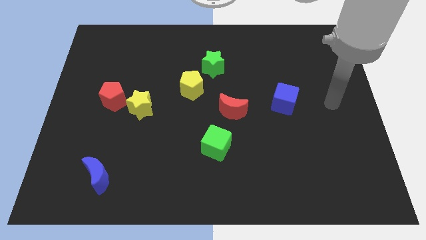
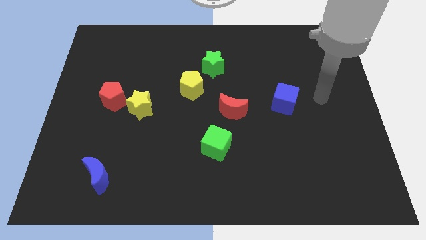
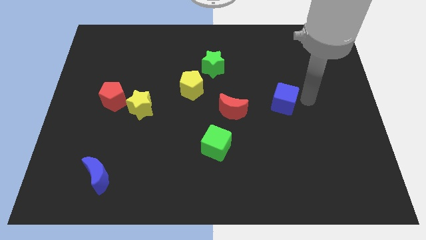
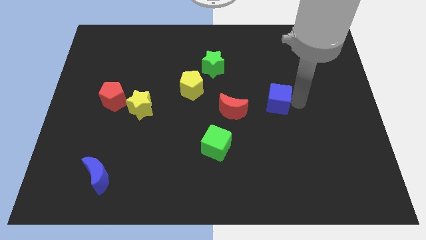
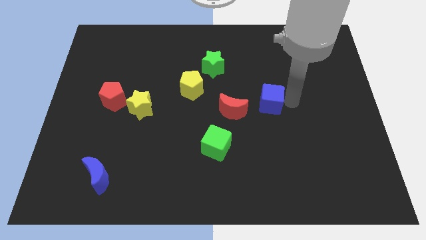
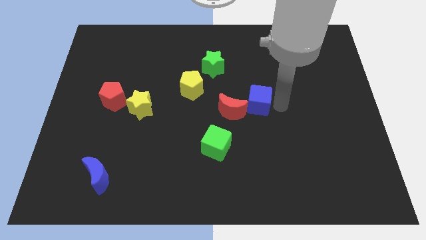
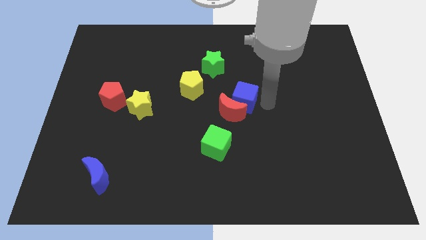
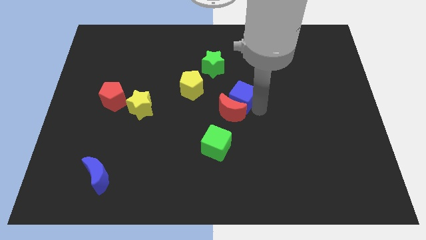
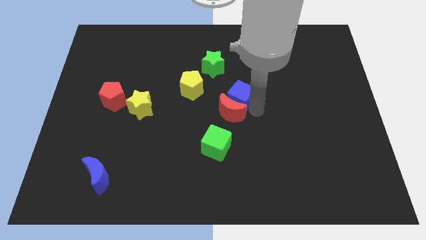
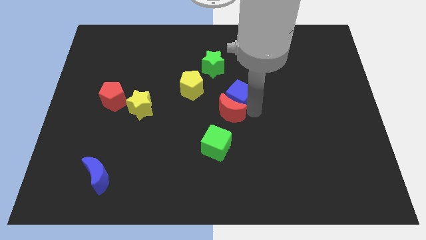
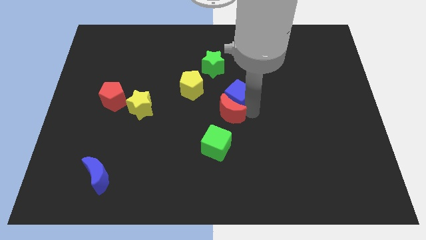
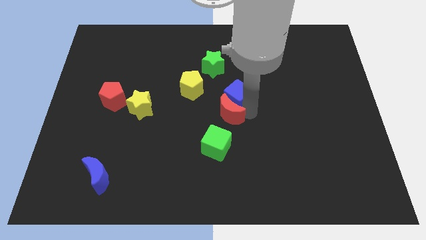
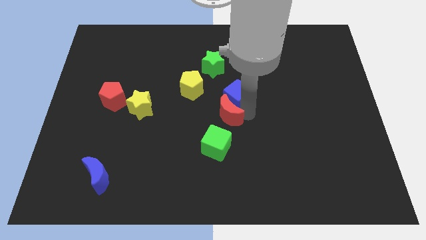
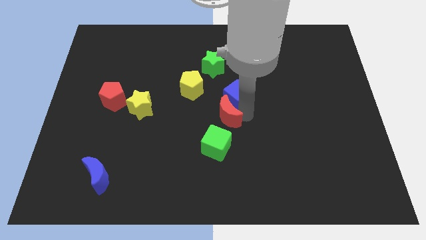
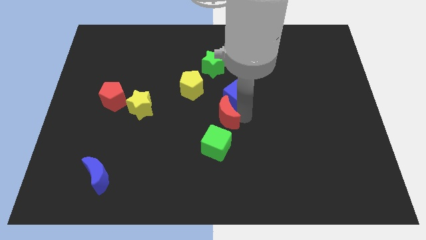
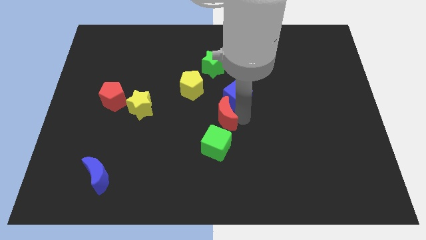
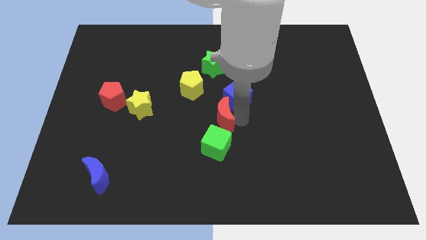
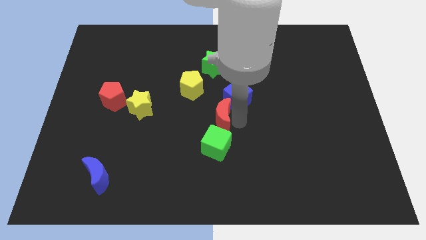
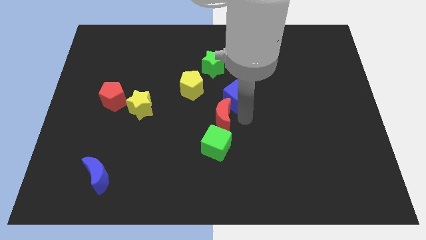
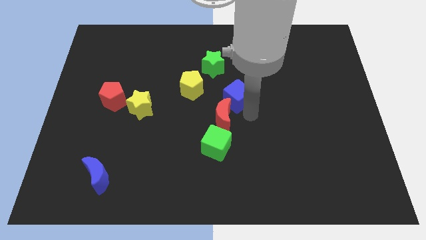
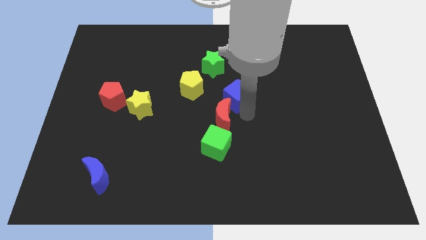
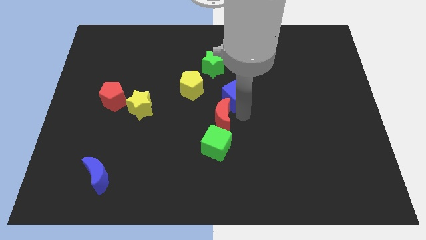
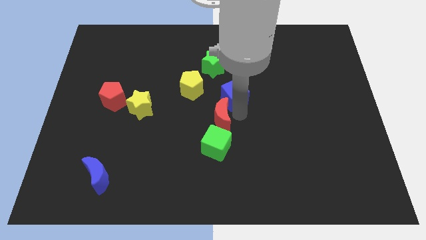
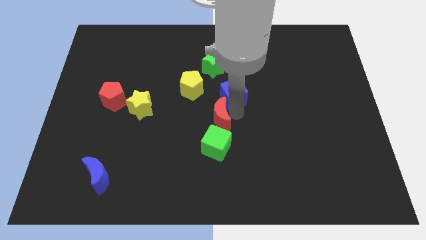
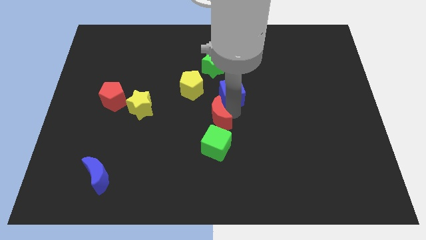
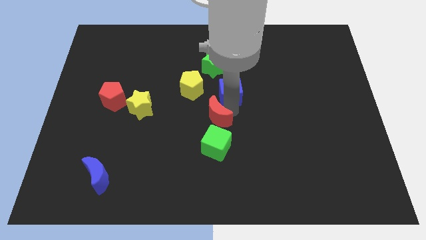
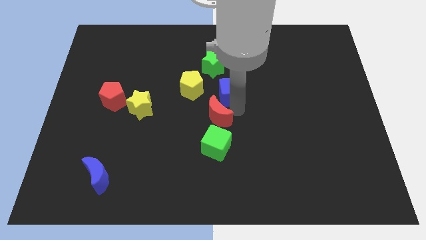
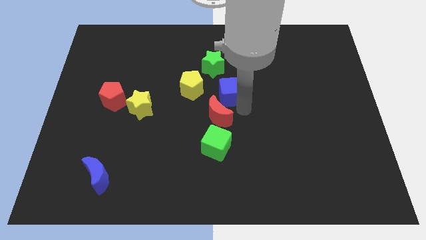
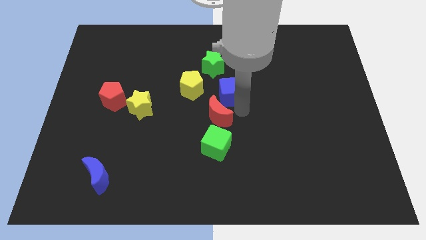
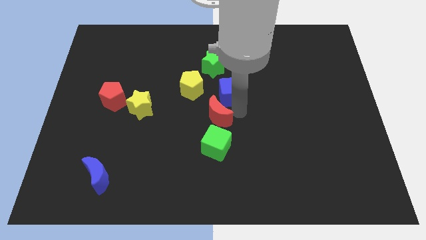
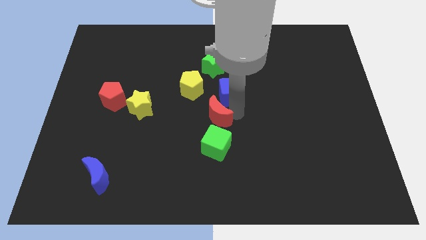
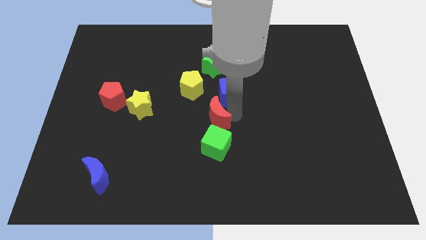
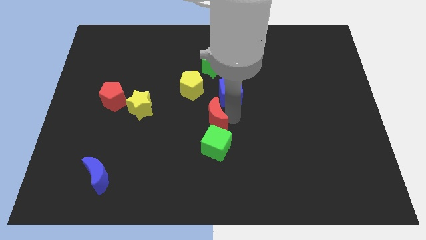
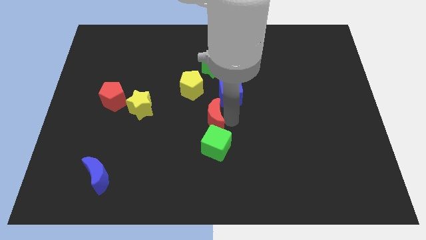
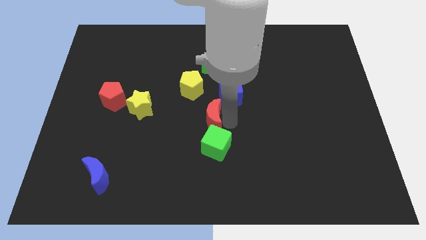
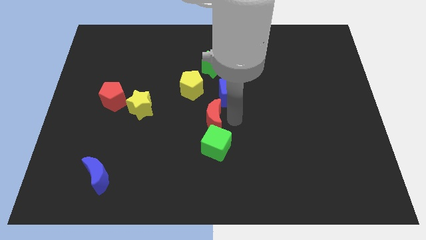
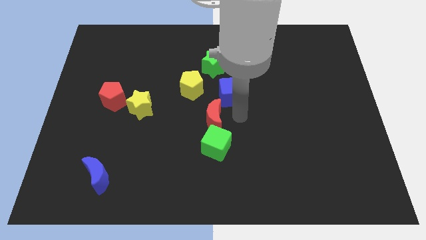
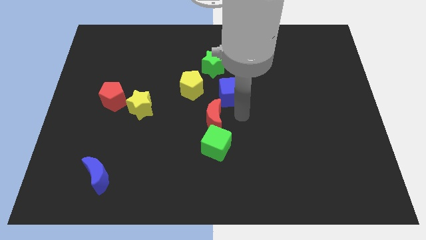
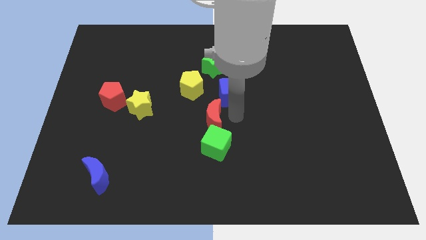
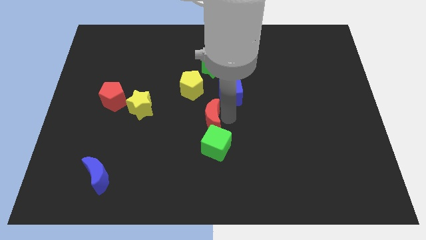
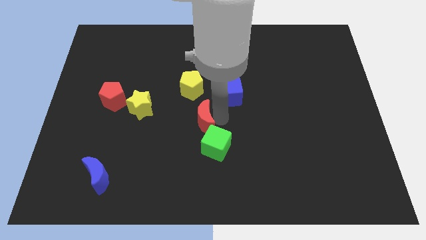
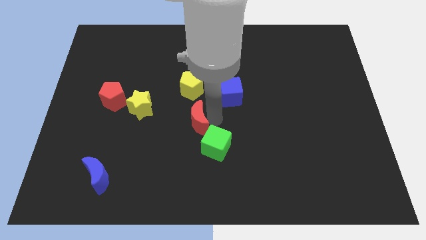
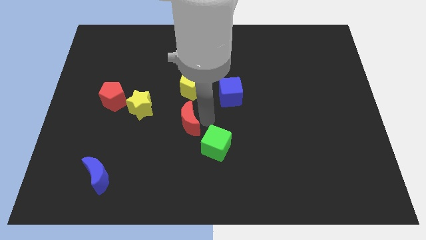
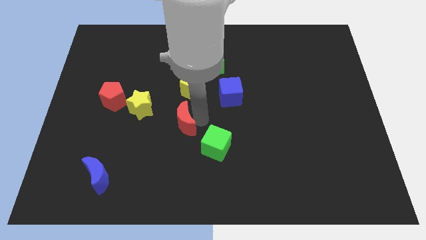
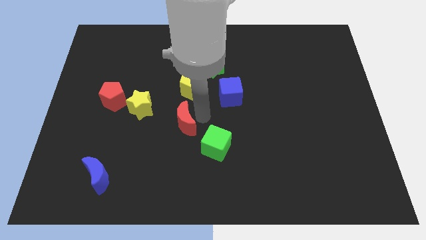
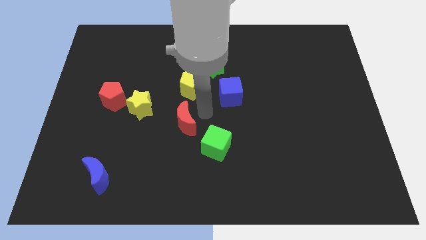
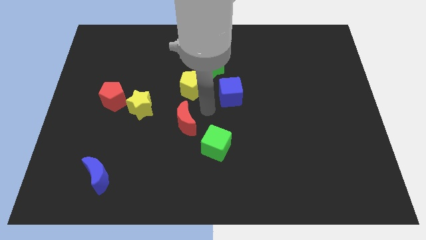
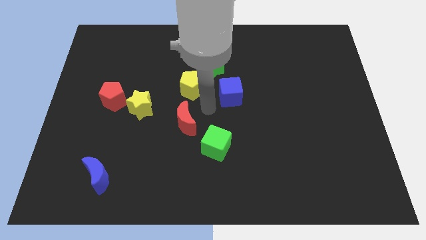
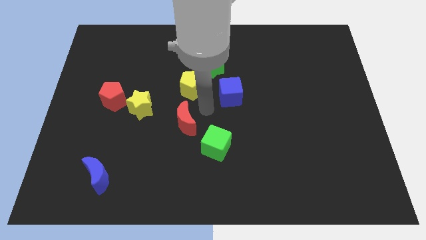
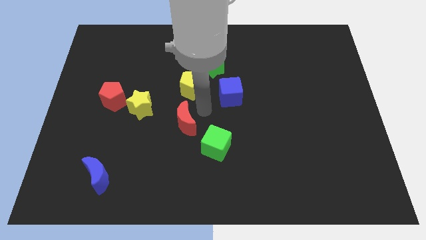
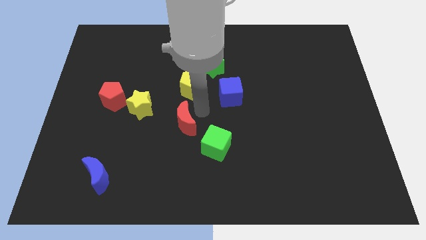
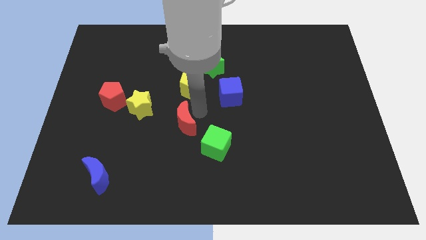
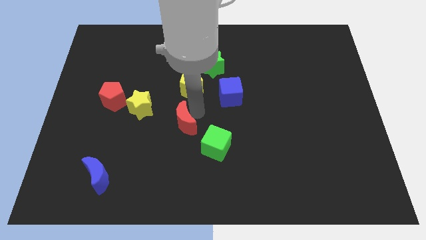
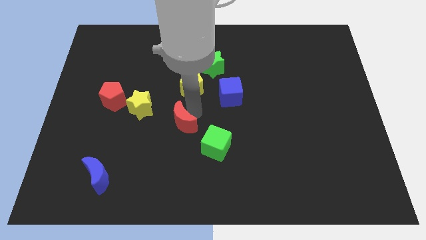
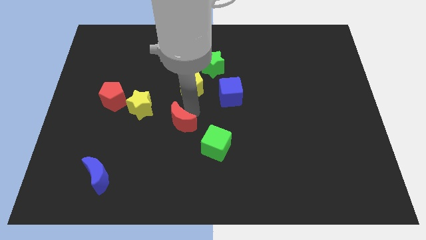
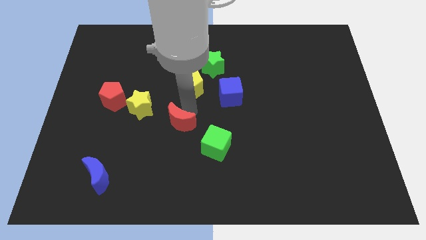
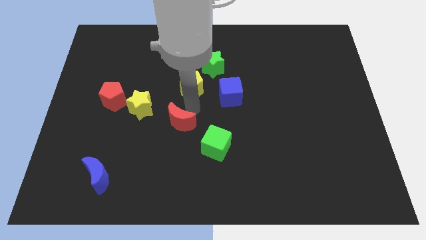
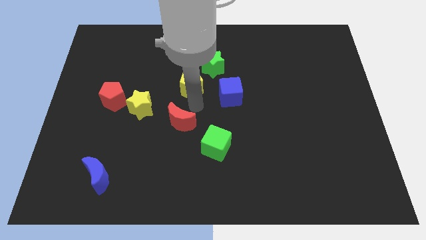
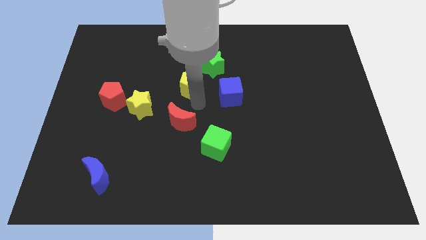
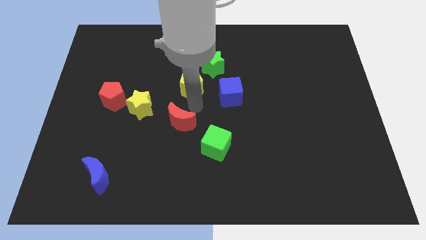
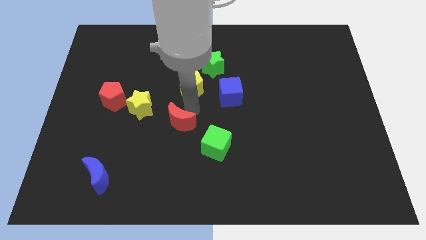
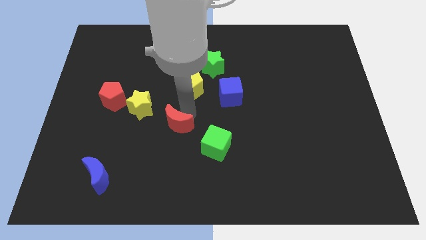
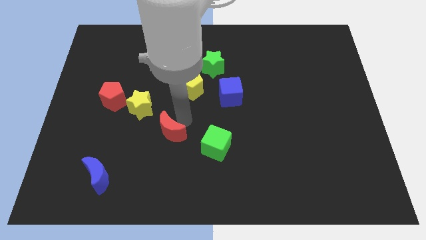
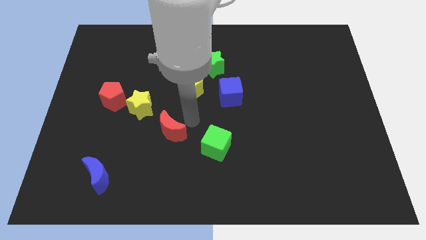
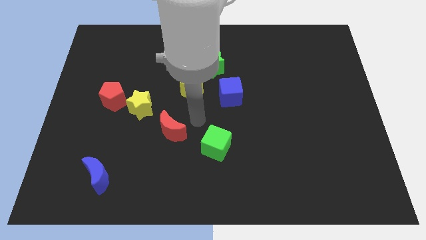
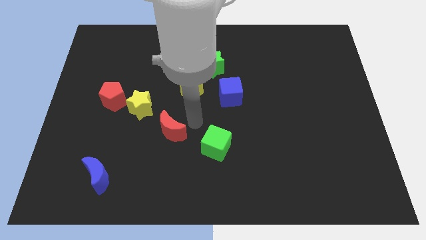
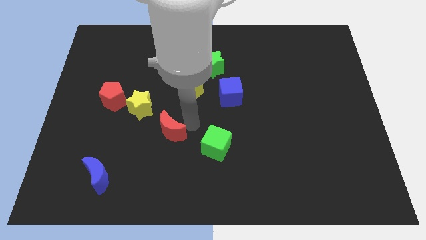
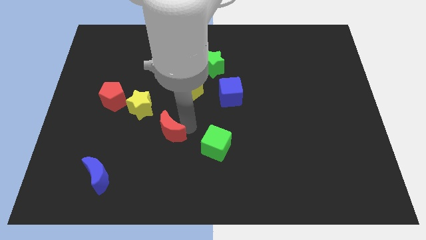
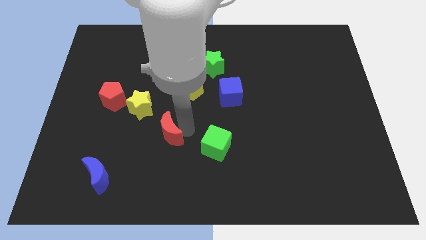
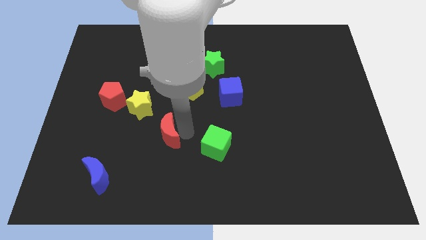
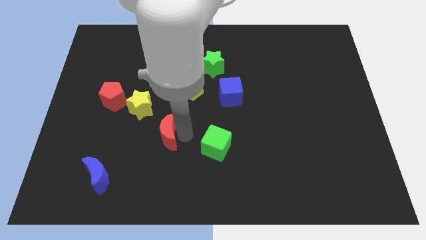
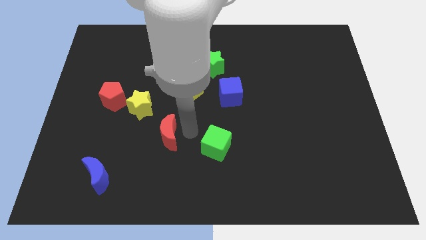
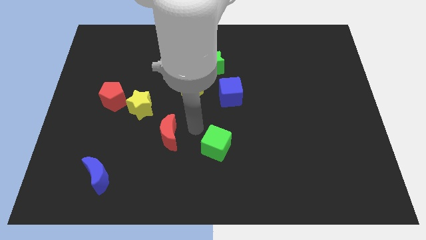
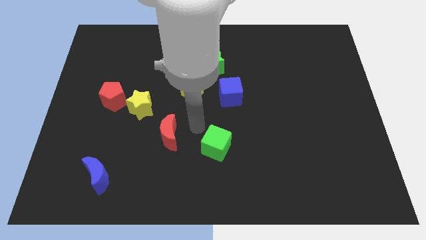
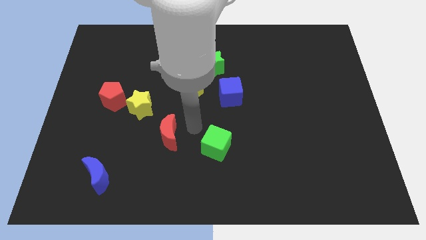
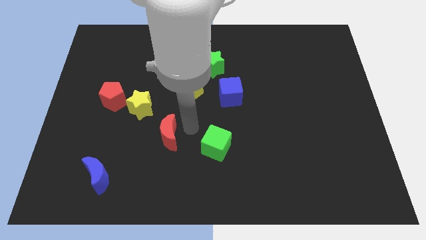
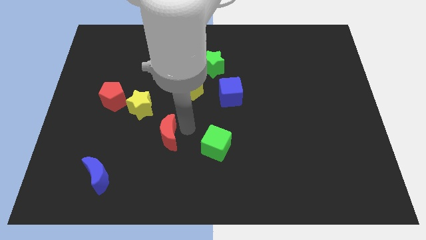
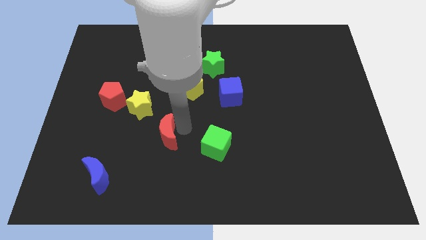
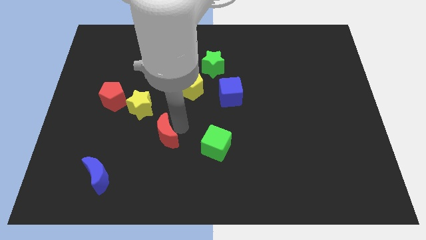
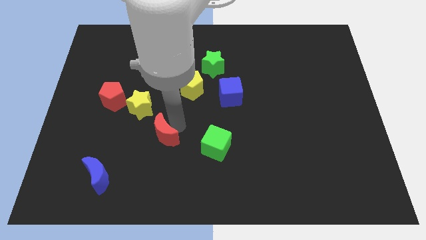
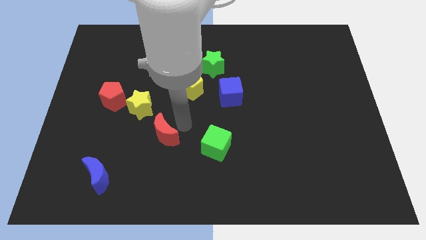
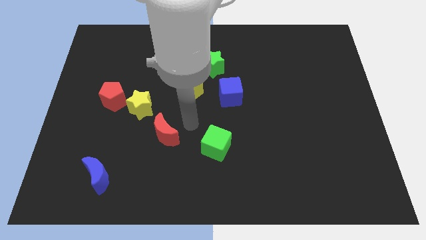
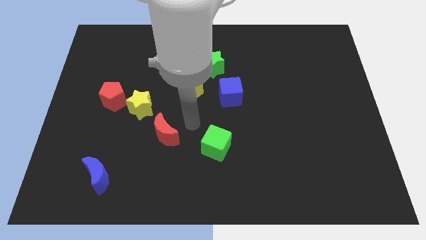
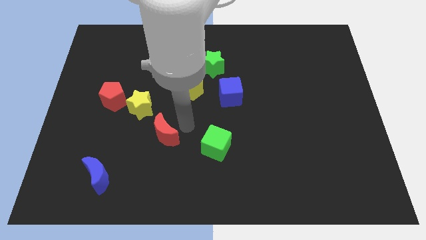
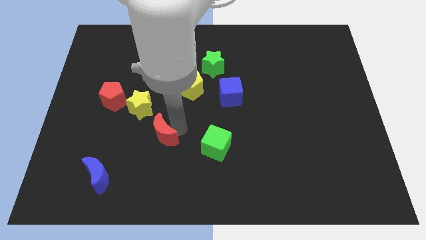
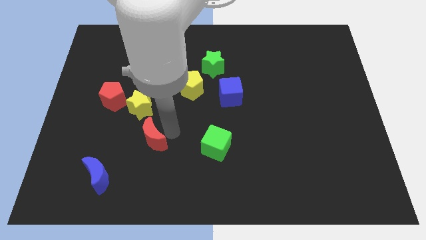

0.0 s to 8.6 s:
put the red moon below the yellow star
